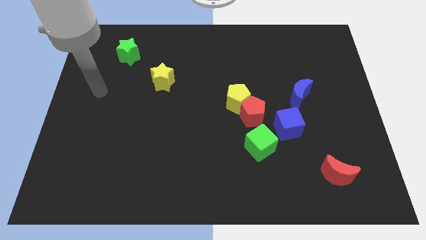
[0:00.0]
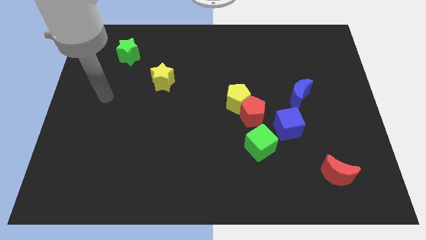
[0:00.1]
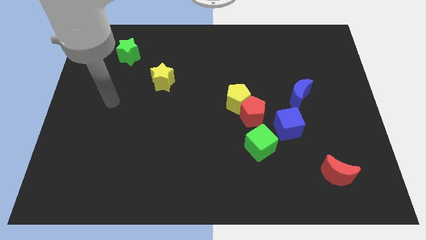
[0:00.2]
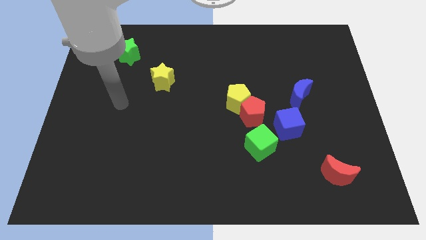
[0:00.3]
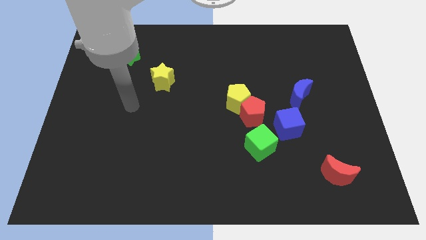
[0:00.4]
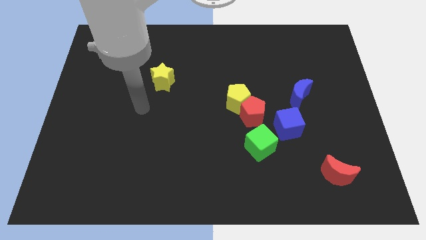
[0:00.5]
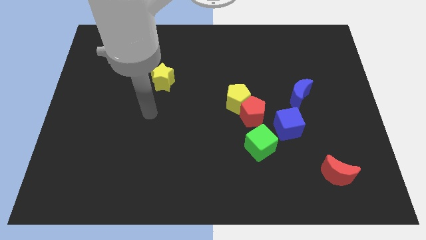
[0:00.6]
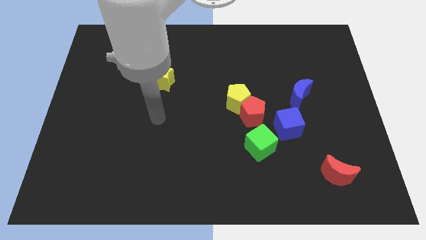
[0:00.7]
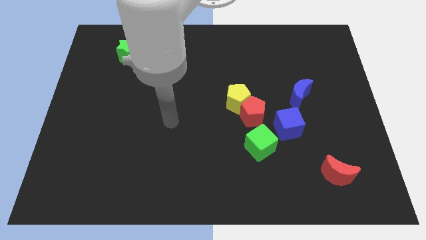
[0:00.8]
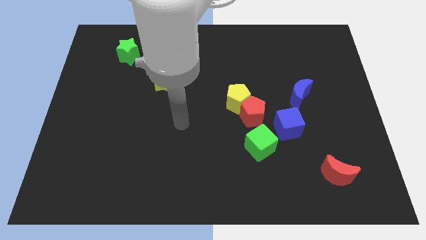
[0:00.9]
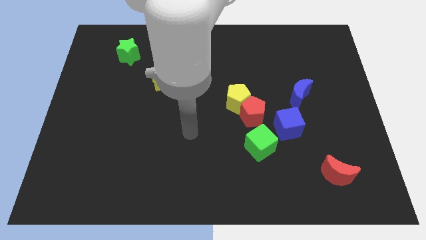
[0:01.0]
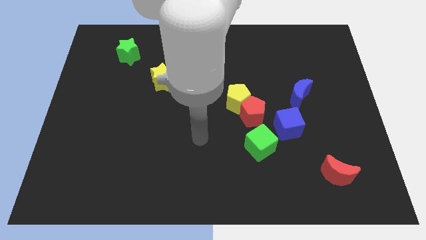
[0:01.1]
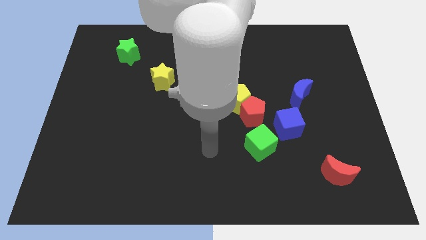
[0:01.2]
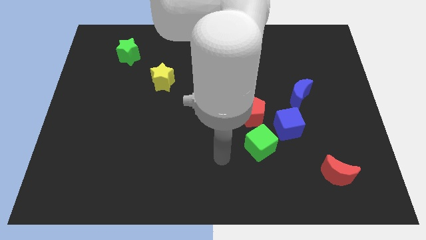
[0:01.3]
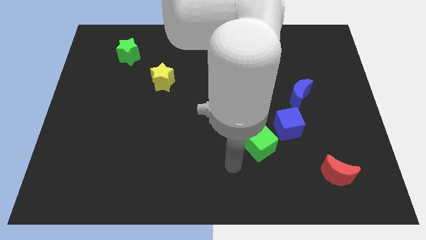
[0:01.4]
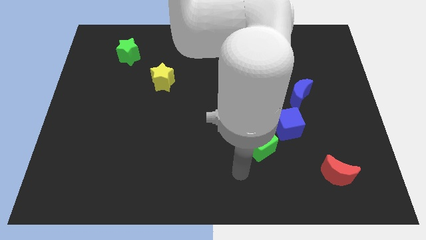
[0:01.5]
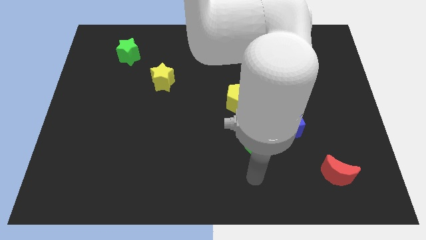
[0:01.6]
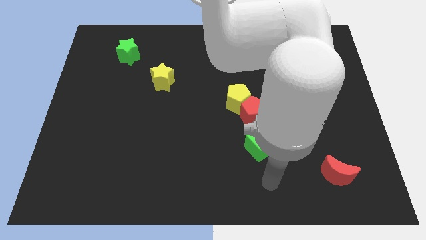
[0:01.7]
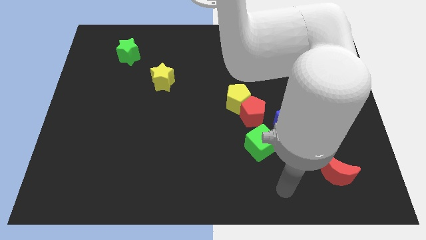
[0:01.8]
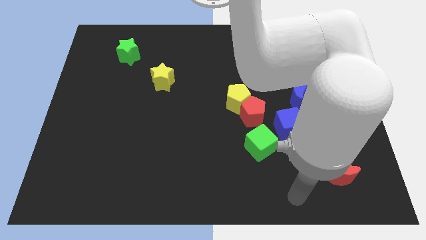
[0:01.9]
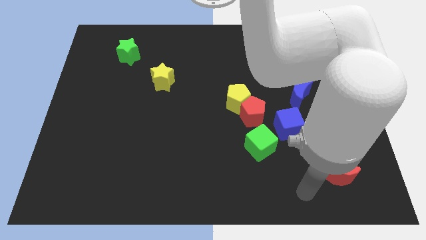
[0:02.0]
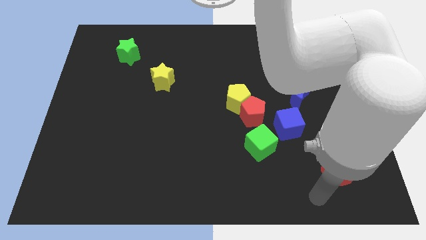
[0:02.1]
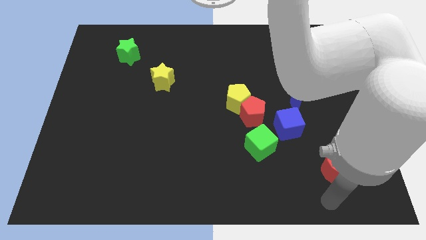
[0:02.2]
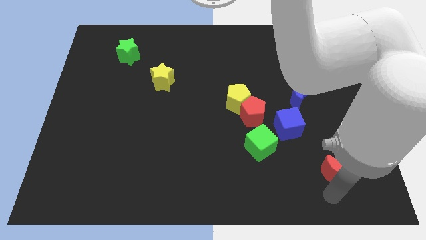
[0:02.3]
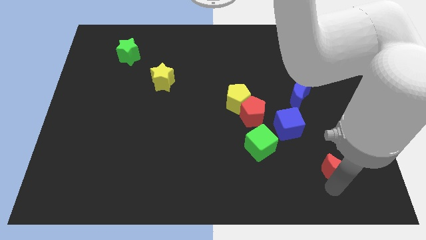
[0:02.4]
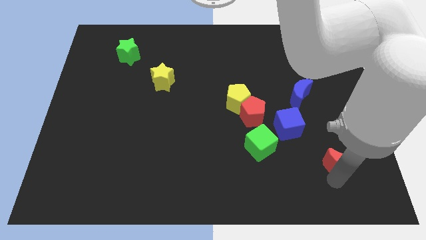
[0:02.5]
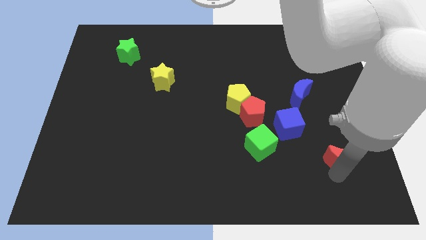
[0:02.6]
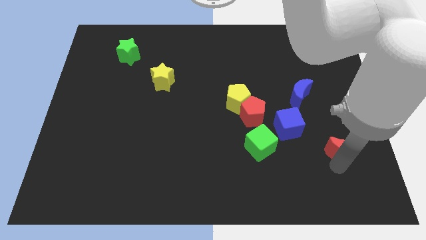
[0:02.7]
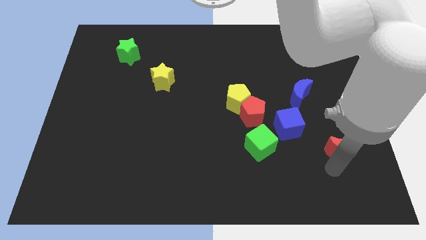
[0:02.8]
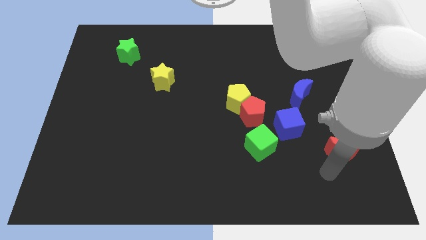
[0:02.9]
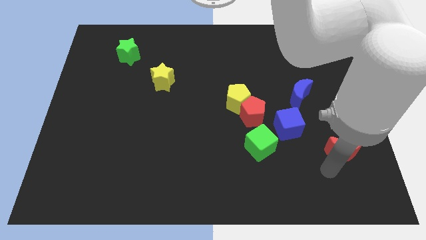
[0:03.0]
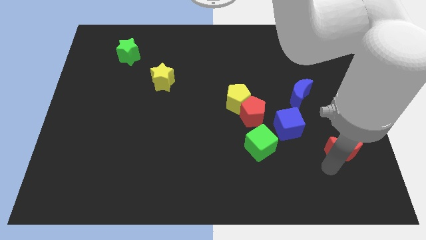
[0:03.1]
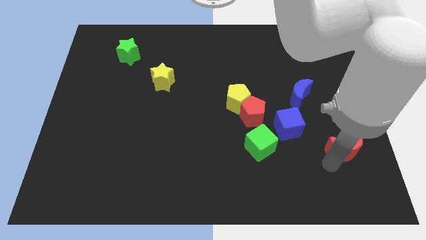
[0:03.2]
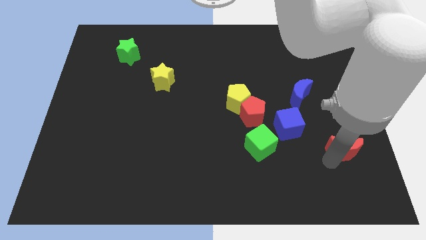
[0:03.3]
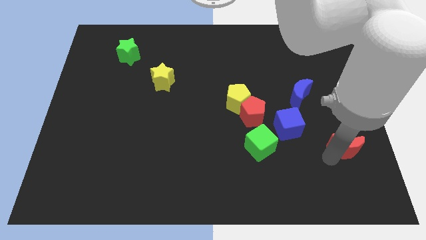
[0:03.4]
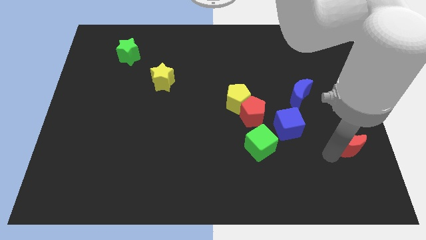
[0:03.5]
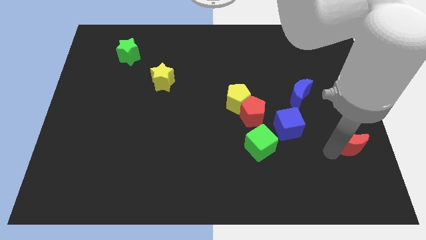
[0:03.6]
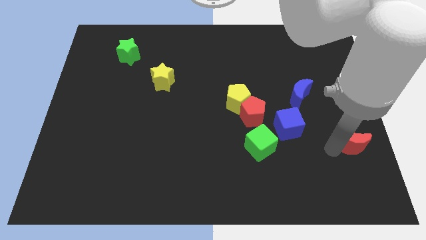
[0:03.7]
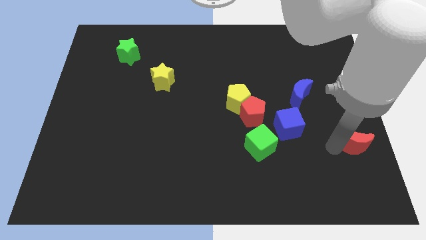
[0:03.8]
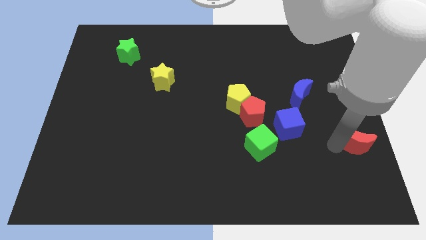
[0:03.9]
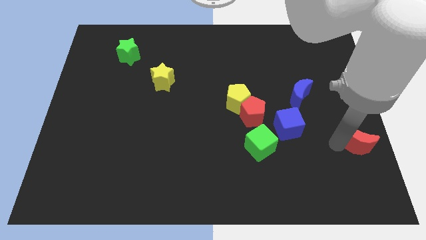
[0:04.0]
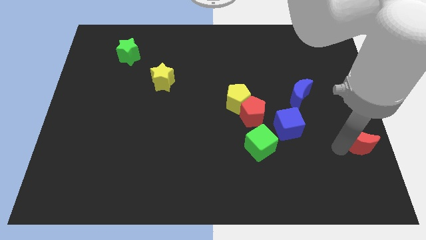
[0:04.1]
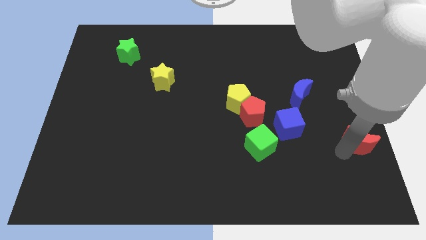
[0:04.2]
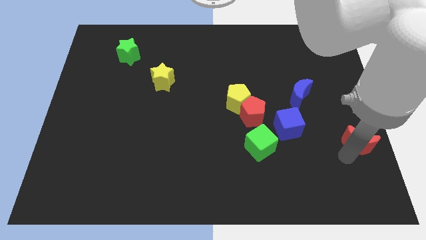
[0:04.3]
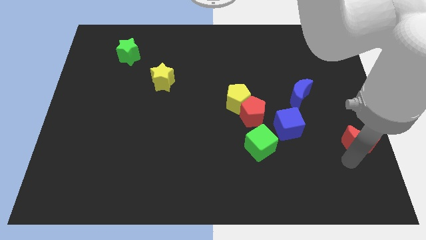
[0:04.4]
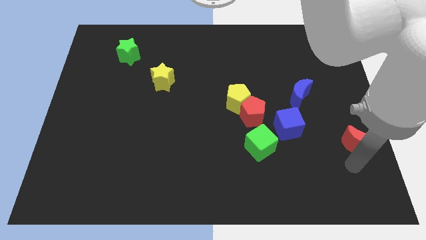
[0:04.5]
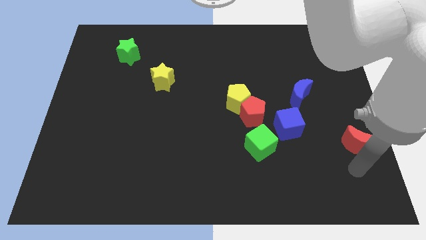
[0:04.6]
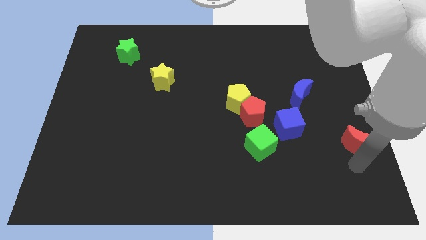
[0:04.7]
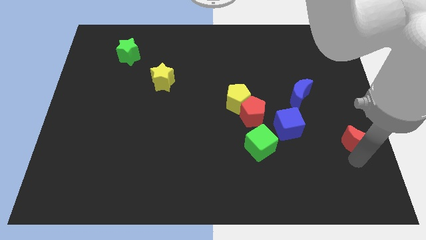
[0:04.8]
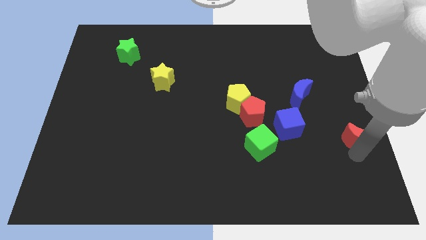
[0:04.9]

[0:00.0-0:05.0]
slide the red moon to the right side of the board

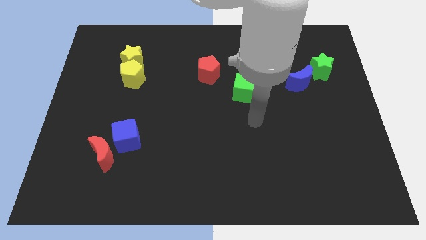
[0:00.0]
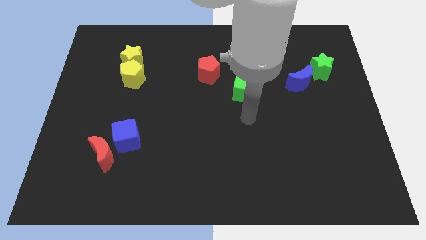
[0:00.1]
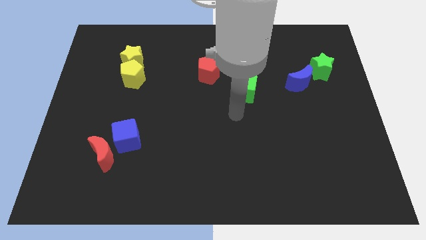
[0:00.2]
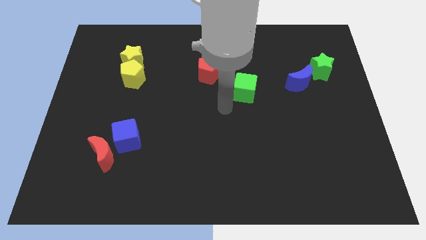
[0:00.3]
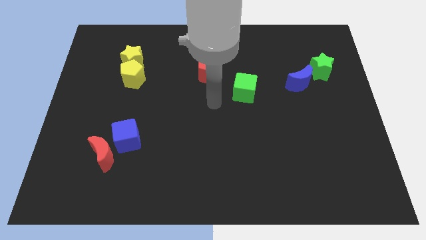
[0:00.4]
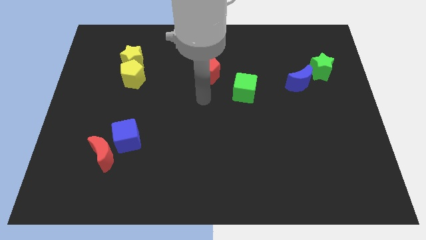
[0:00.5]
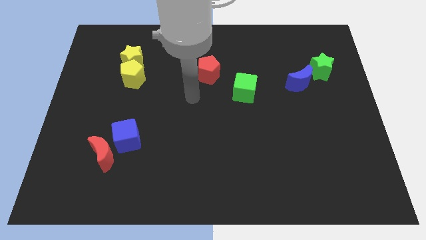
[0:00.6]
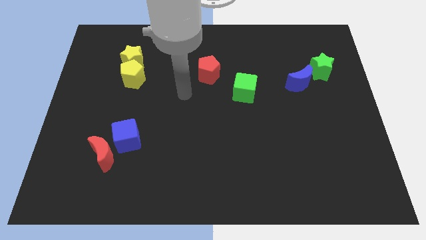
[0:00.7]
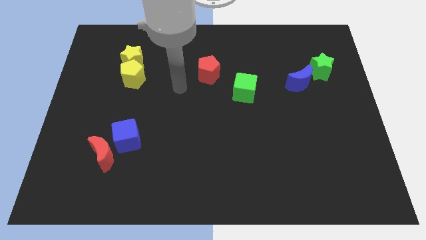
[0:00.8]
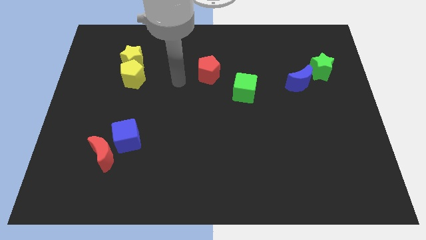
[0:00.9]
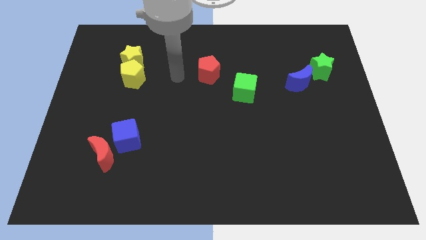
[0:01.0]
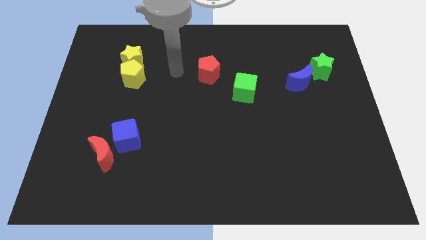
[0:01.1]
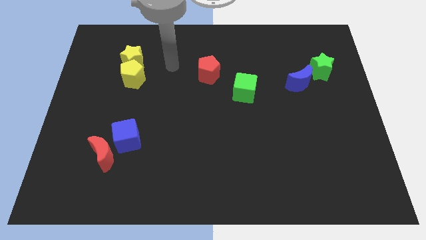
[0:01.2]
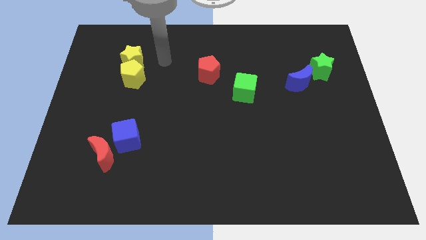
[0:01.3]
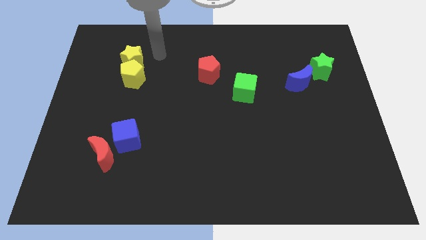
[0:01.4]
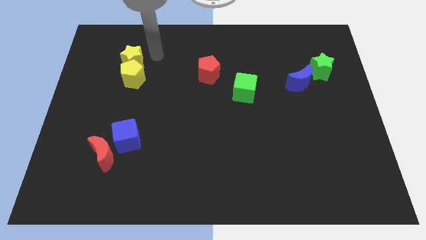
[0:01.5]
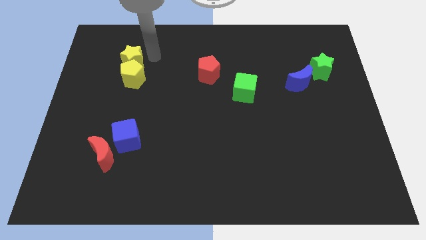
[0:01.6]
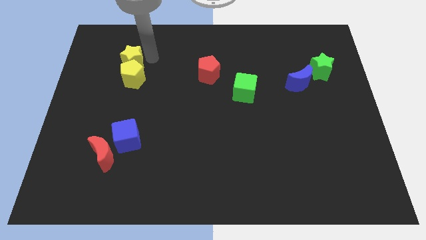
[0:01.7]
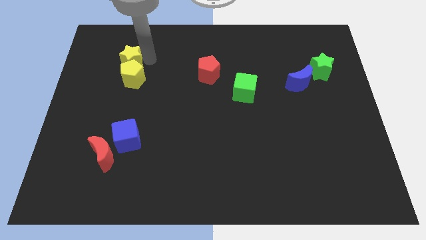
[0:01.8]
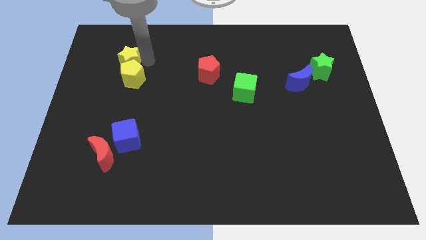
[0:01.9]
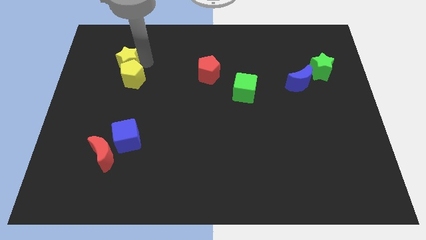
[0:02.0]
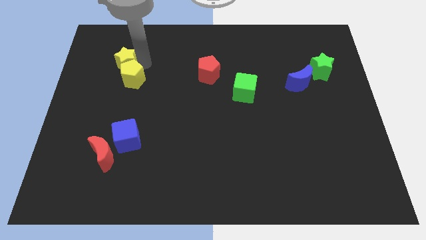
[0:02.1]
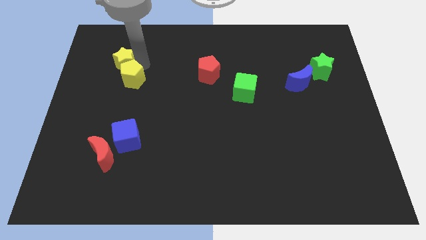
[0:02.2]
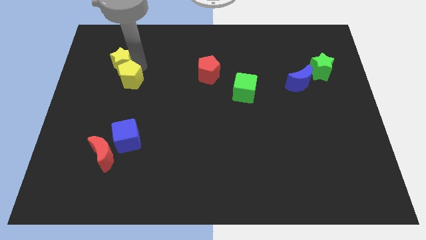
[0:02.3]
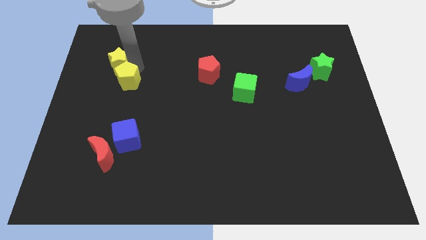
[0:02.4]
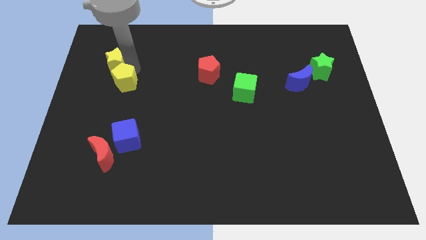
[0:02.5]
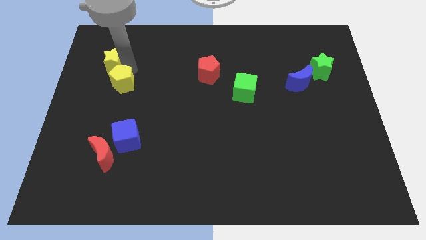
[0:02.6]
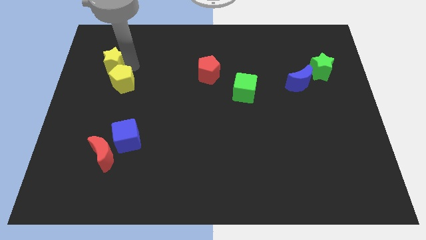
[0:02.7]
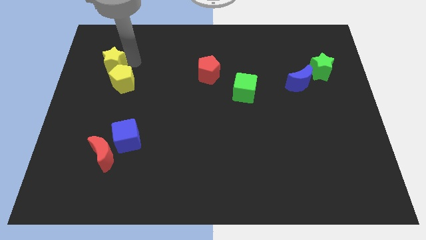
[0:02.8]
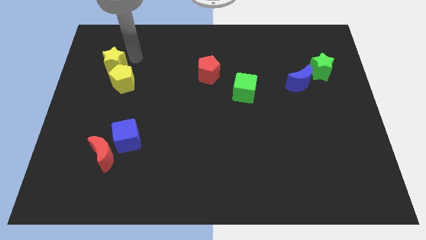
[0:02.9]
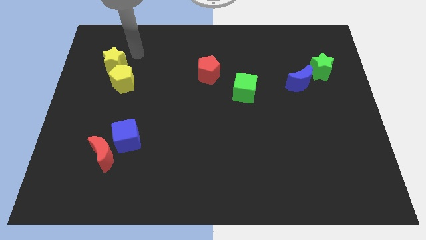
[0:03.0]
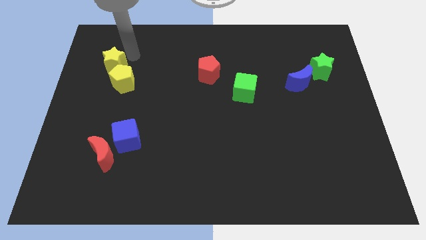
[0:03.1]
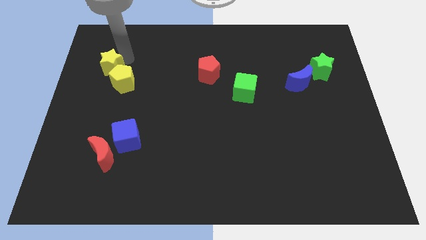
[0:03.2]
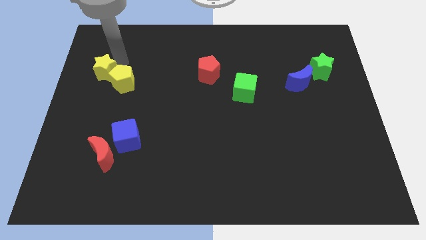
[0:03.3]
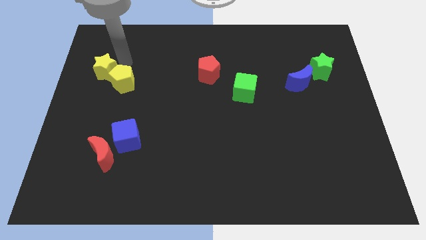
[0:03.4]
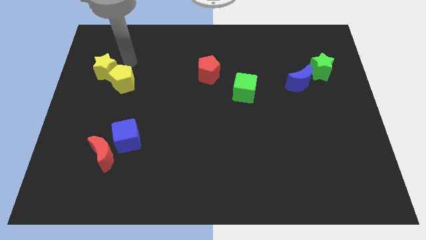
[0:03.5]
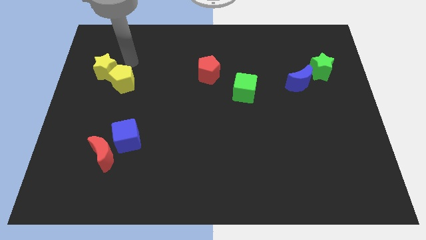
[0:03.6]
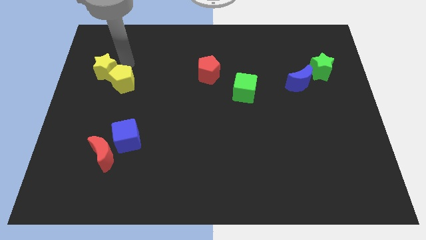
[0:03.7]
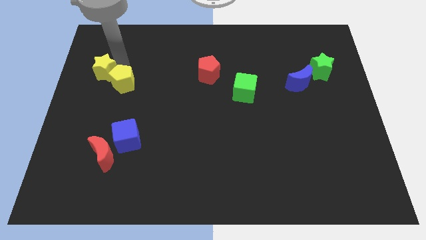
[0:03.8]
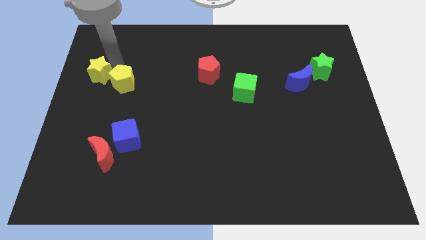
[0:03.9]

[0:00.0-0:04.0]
slide the yellow star to the left side
